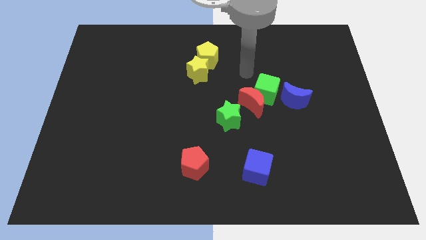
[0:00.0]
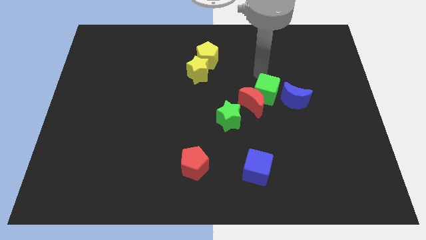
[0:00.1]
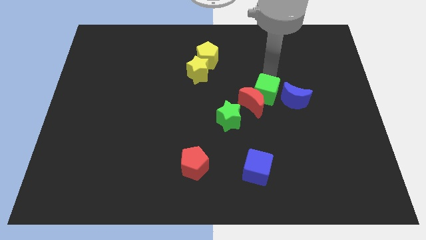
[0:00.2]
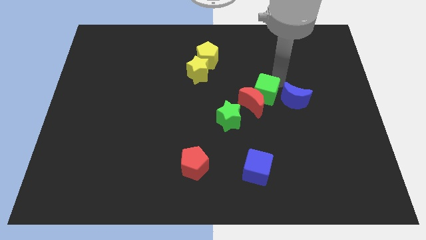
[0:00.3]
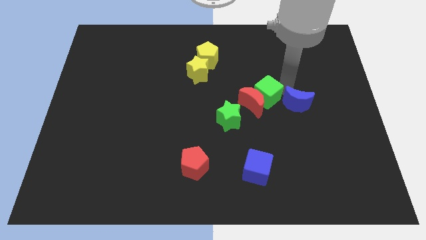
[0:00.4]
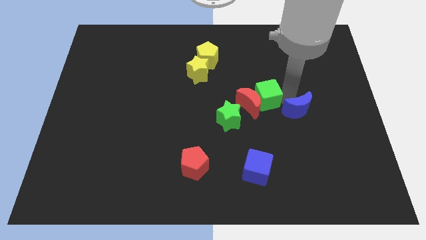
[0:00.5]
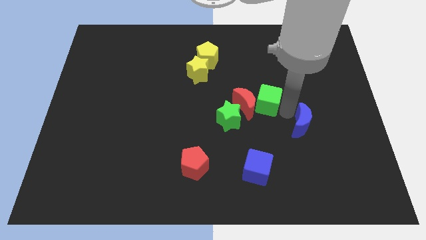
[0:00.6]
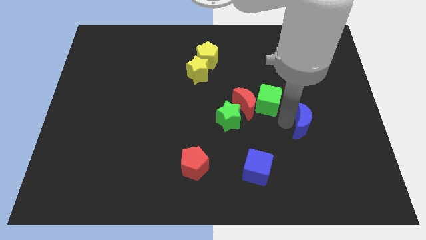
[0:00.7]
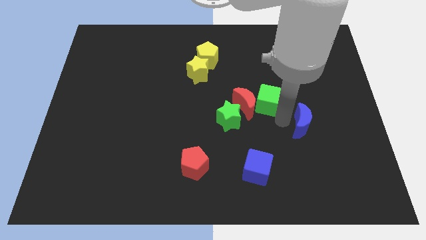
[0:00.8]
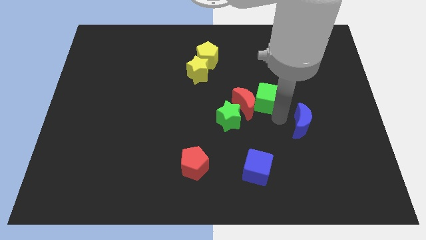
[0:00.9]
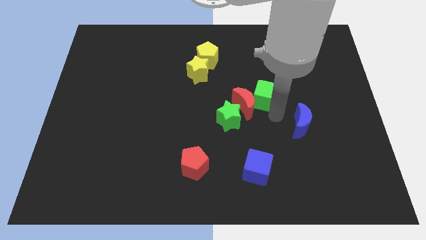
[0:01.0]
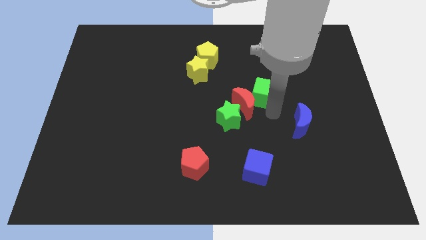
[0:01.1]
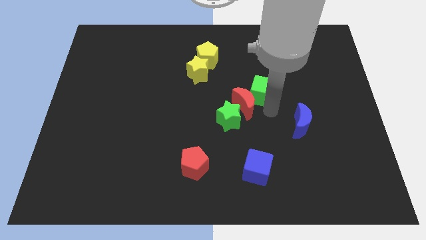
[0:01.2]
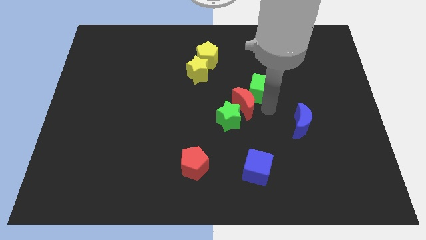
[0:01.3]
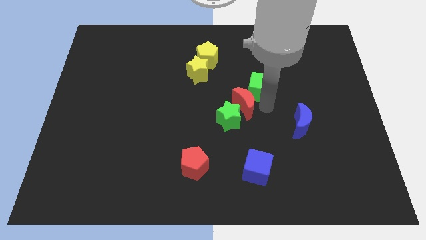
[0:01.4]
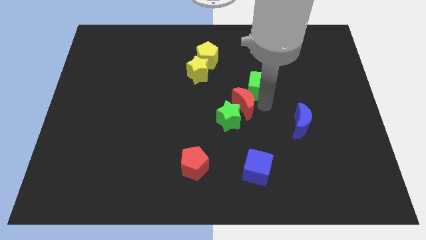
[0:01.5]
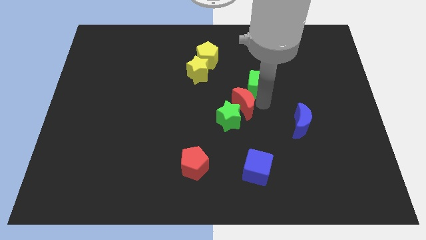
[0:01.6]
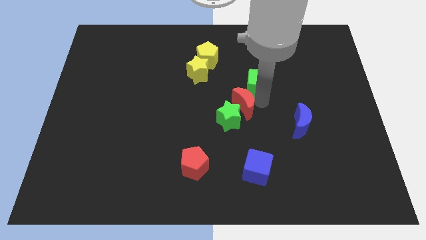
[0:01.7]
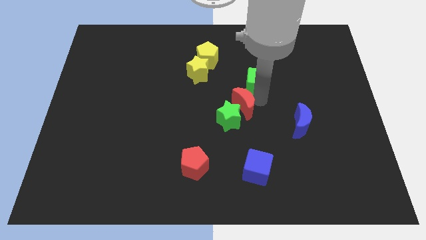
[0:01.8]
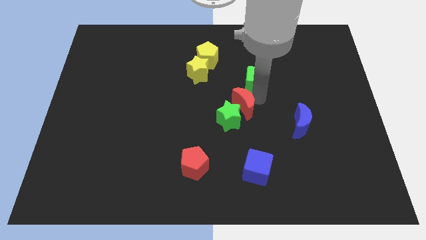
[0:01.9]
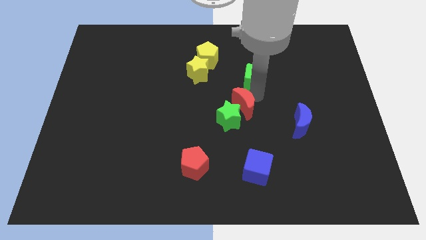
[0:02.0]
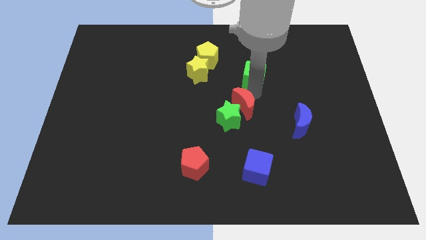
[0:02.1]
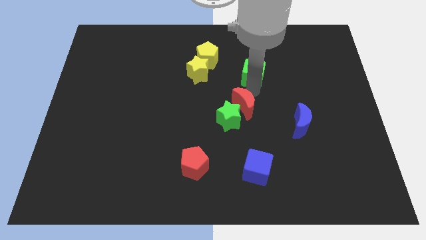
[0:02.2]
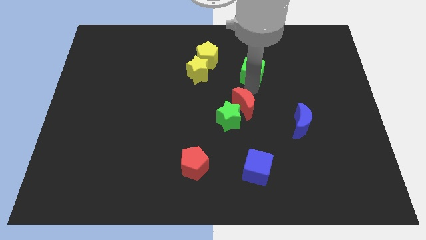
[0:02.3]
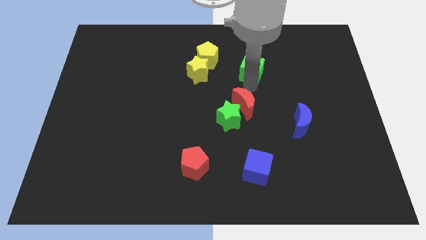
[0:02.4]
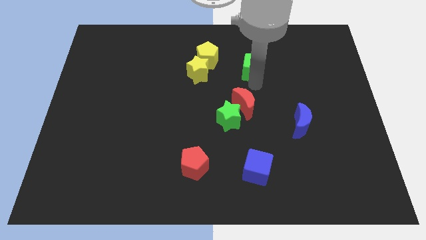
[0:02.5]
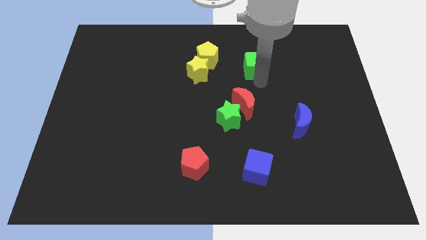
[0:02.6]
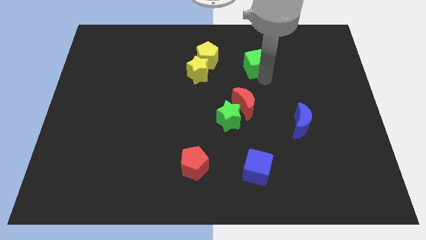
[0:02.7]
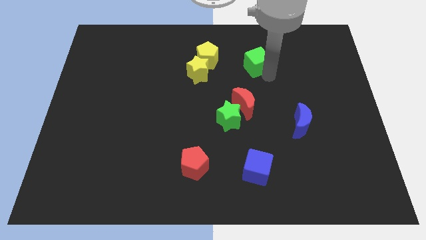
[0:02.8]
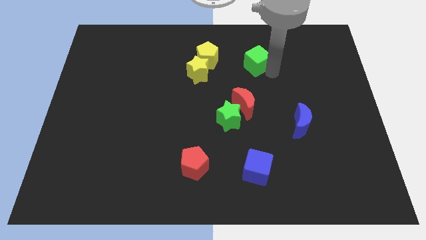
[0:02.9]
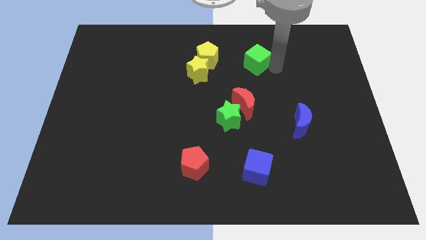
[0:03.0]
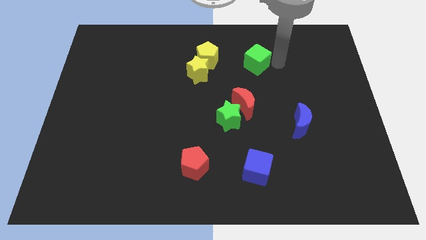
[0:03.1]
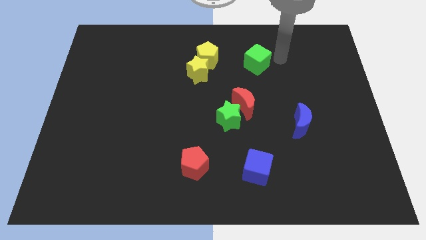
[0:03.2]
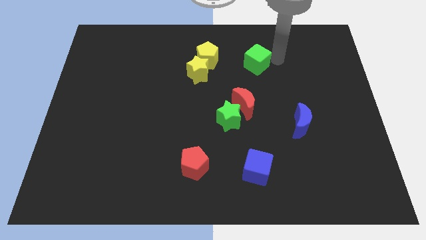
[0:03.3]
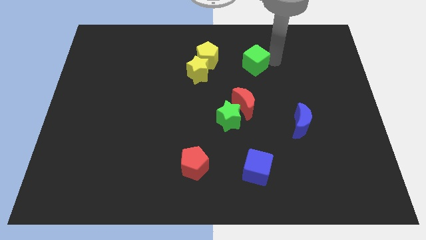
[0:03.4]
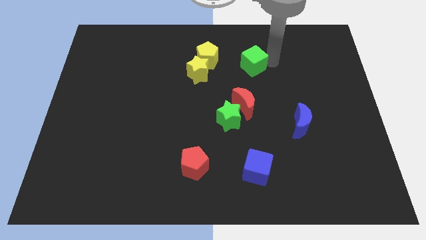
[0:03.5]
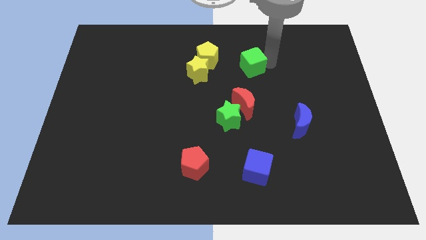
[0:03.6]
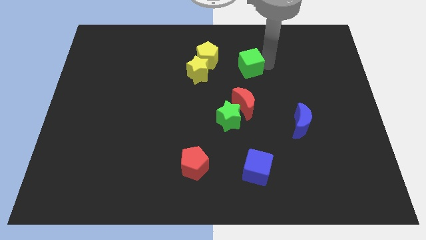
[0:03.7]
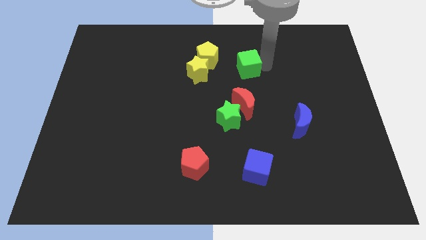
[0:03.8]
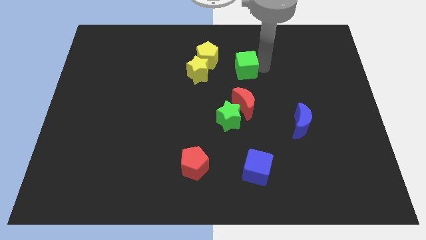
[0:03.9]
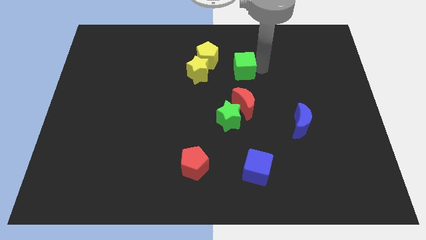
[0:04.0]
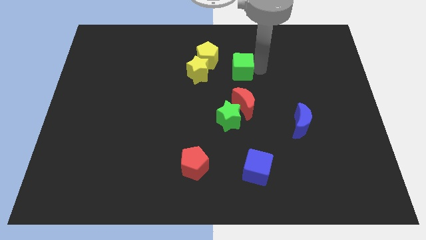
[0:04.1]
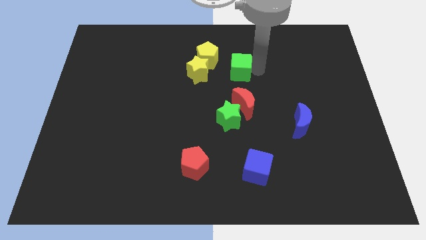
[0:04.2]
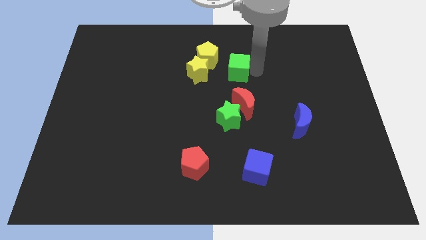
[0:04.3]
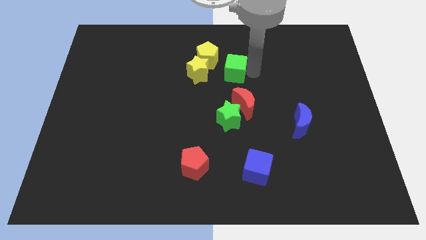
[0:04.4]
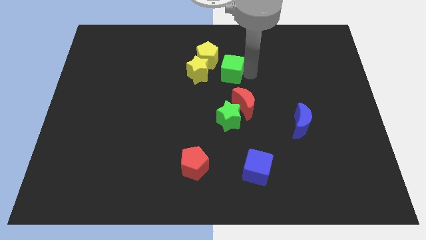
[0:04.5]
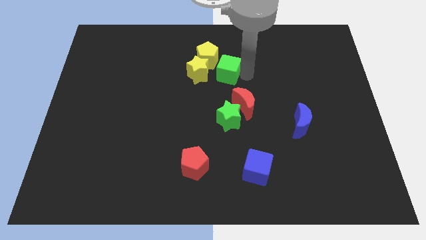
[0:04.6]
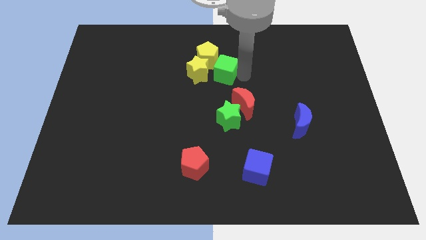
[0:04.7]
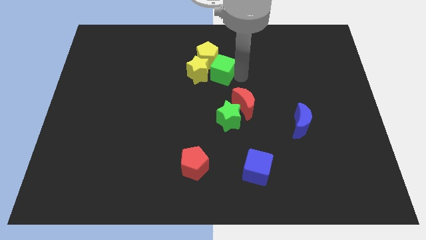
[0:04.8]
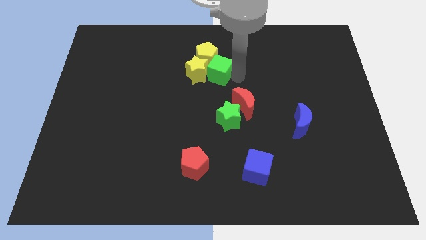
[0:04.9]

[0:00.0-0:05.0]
slide the green cube to the yellow pentagon

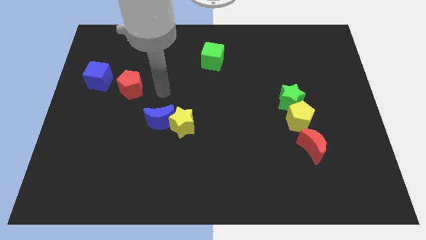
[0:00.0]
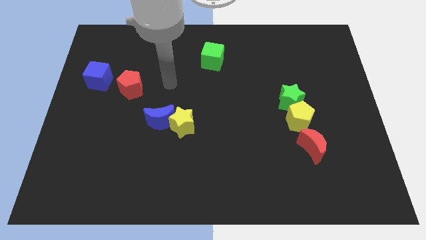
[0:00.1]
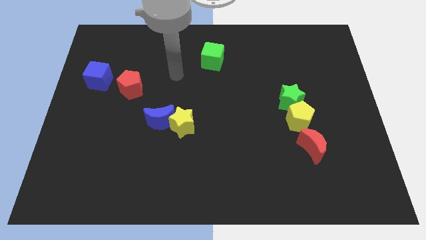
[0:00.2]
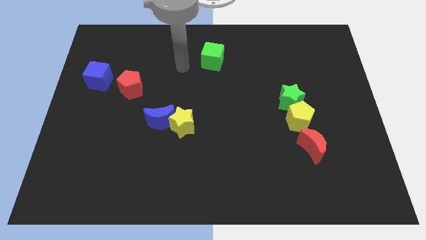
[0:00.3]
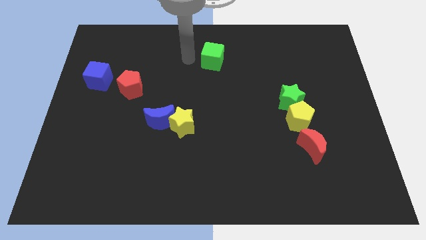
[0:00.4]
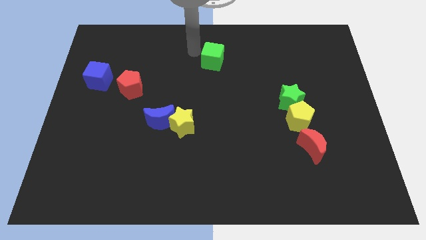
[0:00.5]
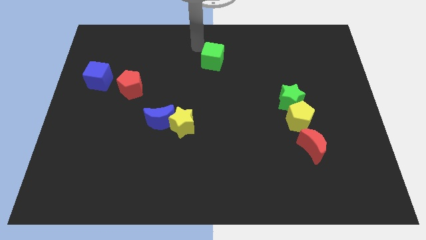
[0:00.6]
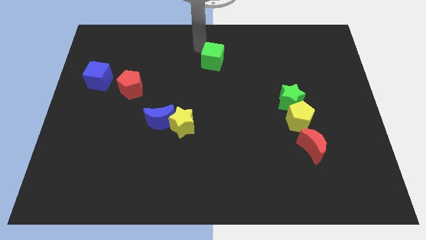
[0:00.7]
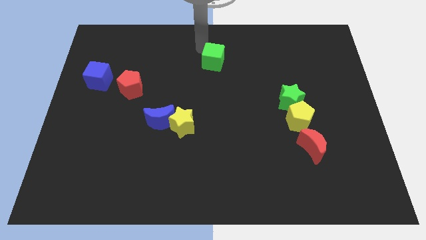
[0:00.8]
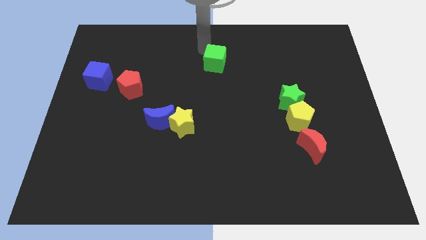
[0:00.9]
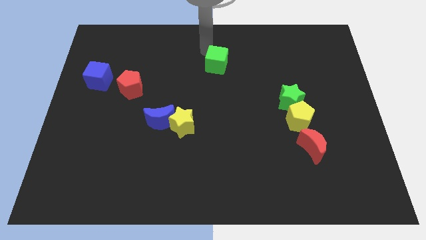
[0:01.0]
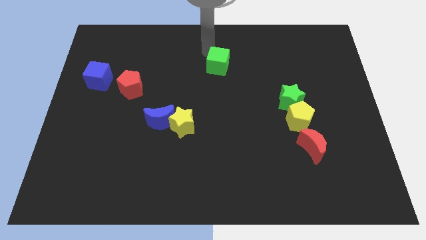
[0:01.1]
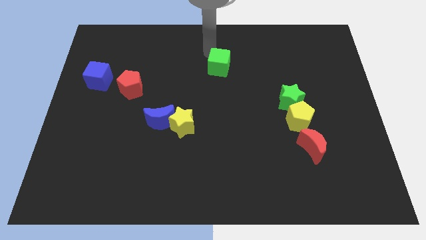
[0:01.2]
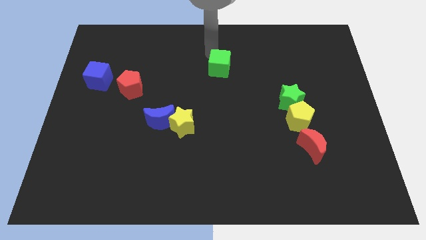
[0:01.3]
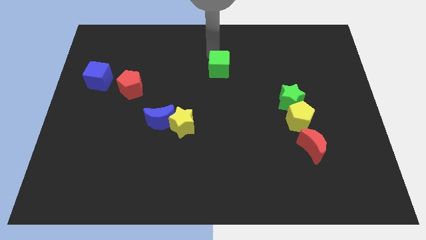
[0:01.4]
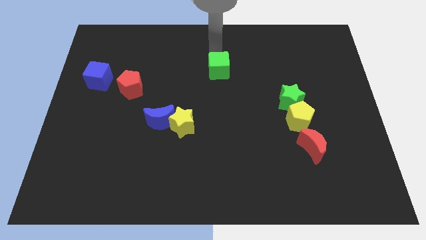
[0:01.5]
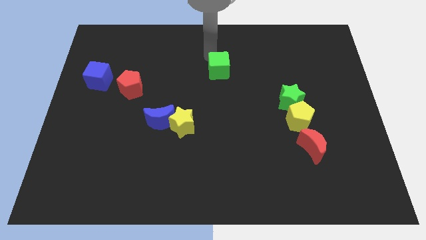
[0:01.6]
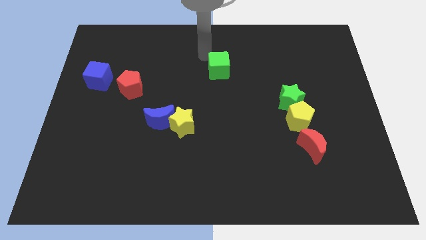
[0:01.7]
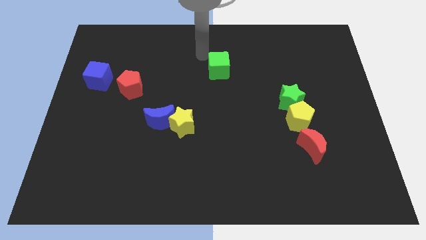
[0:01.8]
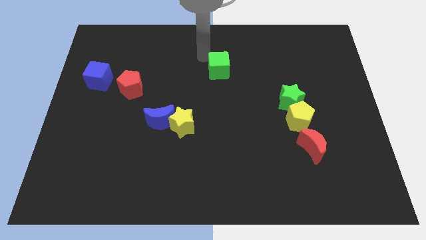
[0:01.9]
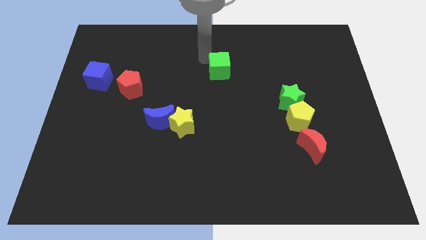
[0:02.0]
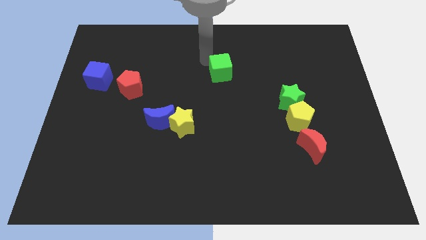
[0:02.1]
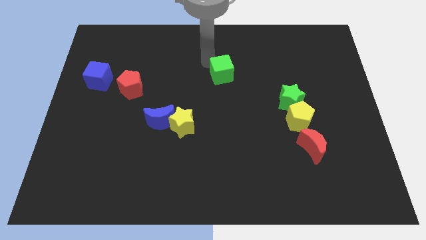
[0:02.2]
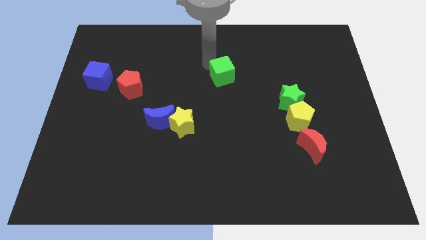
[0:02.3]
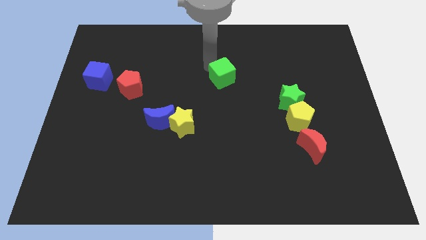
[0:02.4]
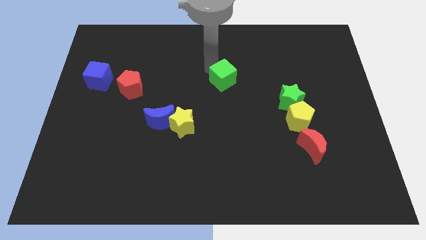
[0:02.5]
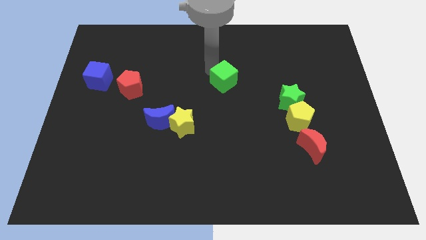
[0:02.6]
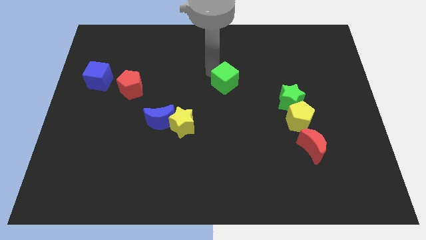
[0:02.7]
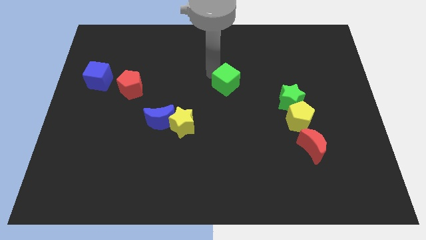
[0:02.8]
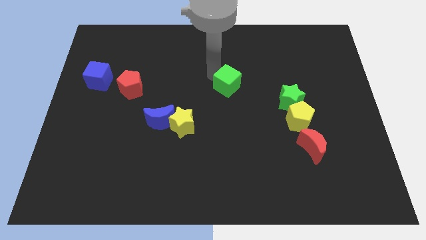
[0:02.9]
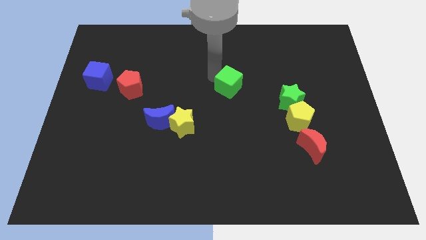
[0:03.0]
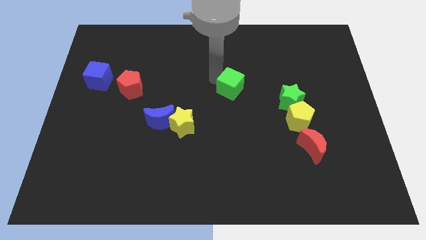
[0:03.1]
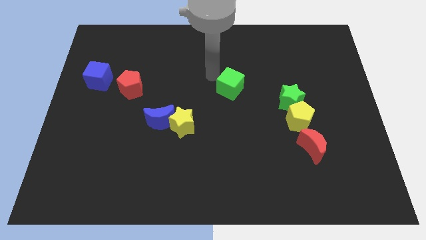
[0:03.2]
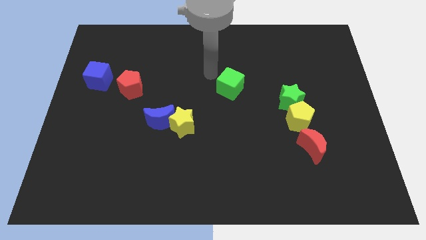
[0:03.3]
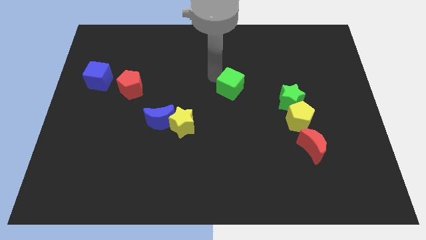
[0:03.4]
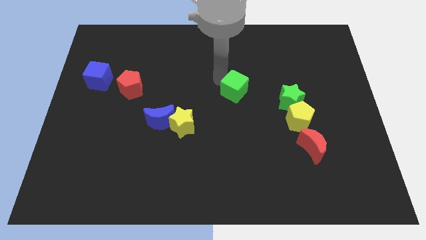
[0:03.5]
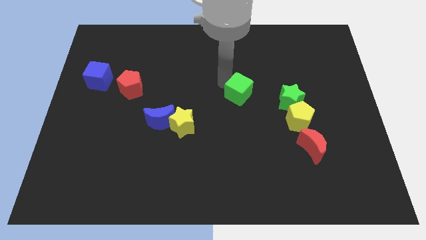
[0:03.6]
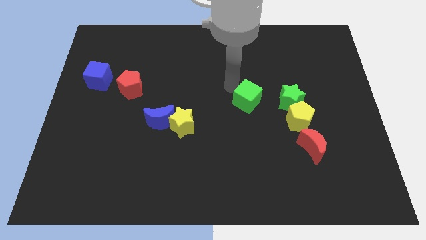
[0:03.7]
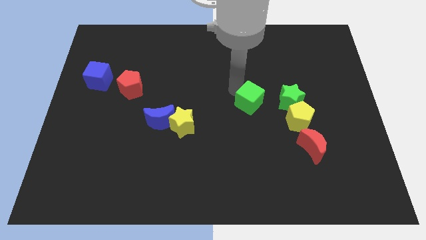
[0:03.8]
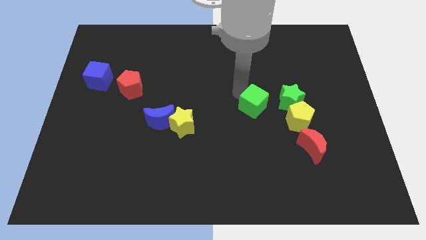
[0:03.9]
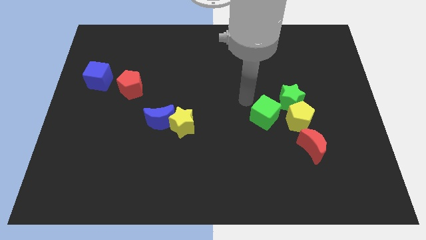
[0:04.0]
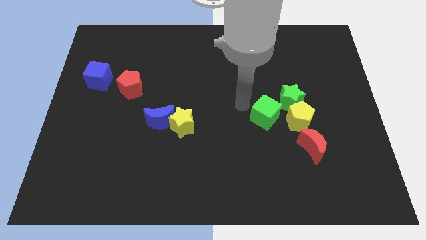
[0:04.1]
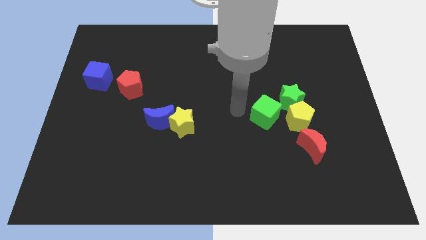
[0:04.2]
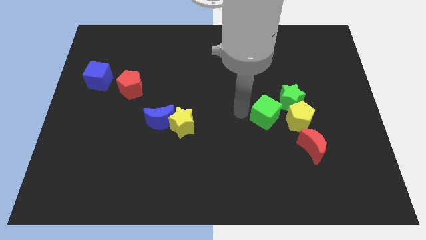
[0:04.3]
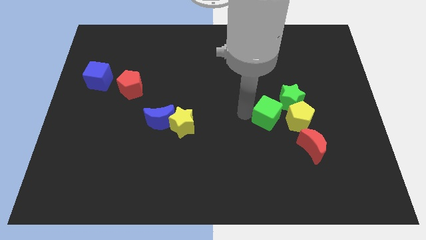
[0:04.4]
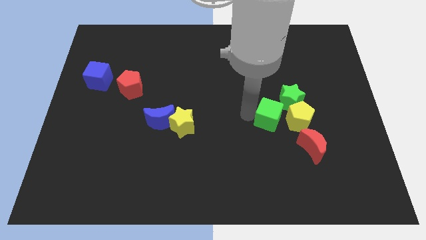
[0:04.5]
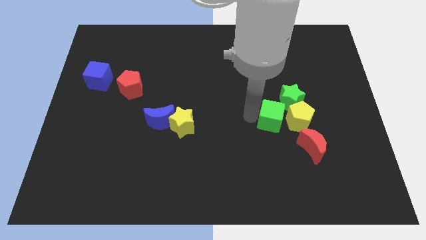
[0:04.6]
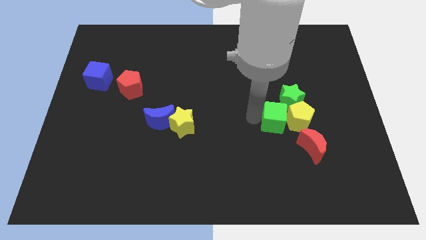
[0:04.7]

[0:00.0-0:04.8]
push the green cube to the yellow pentagon
